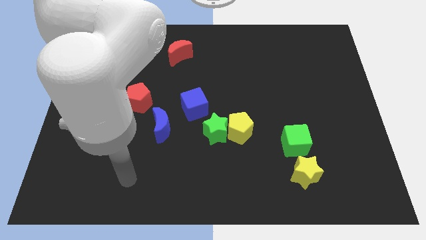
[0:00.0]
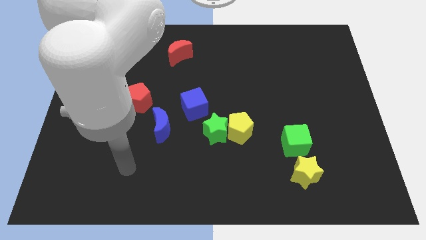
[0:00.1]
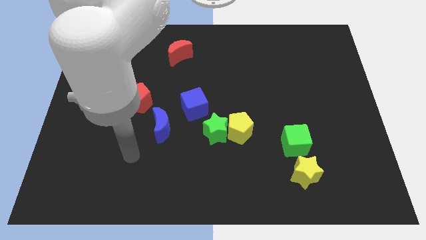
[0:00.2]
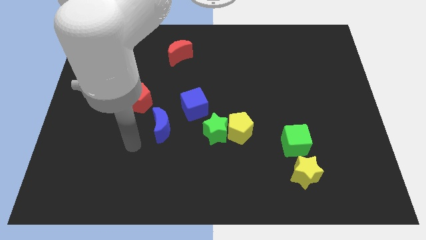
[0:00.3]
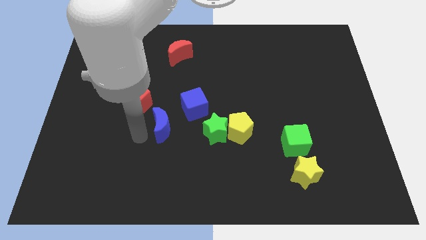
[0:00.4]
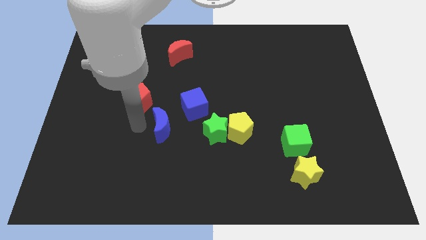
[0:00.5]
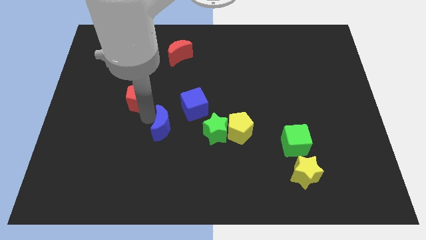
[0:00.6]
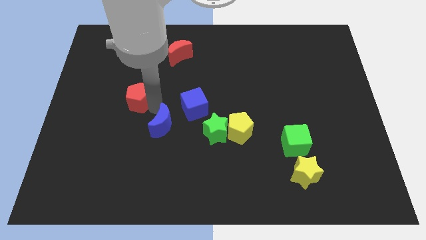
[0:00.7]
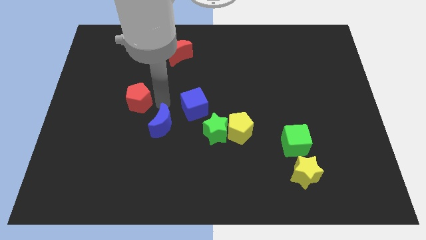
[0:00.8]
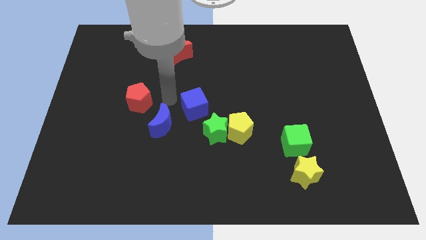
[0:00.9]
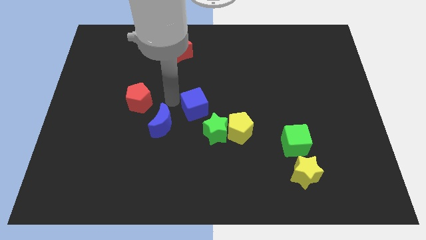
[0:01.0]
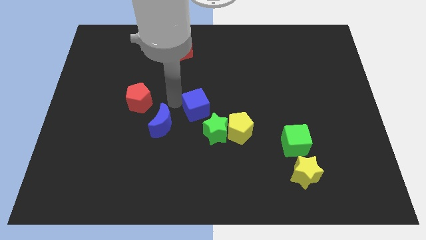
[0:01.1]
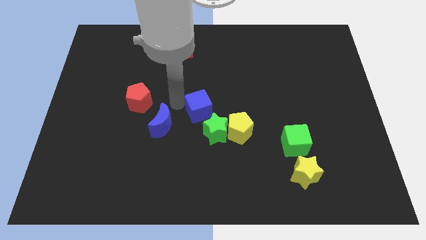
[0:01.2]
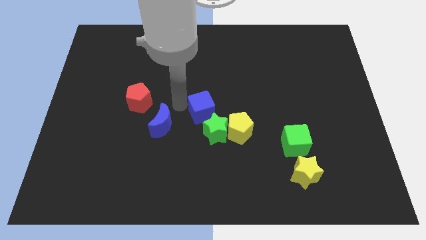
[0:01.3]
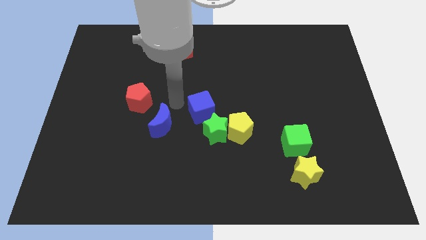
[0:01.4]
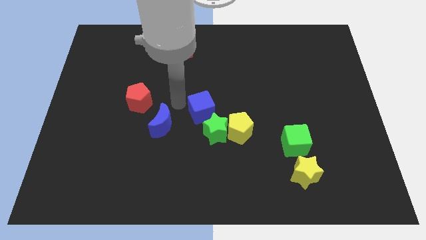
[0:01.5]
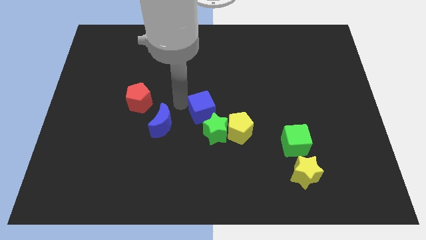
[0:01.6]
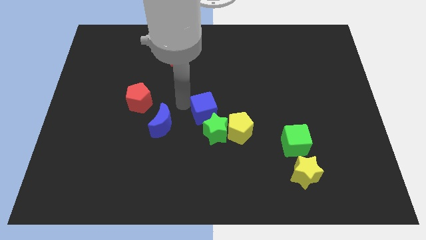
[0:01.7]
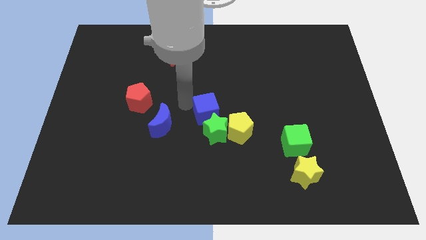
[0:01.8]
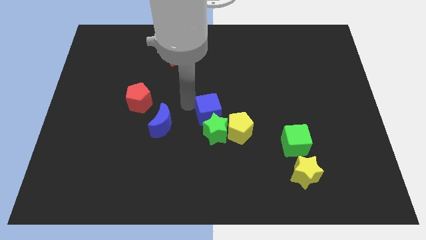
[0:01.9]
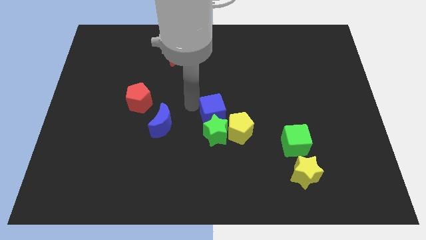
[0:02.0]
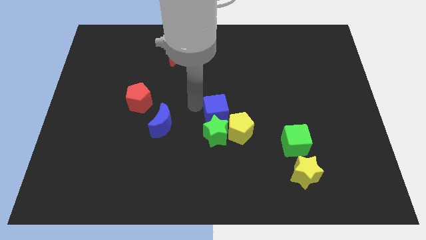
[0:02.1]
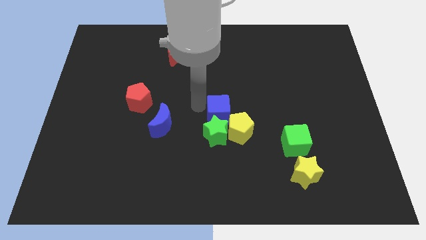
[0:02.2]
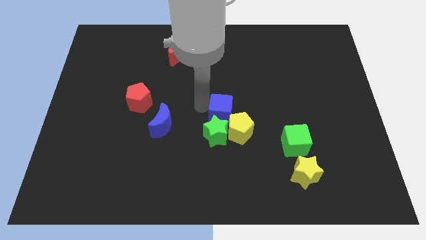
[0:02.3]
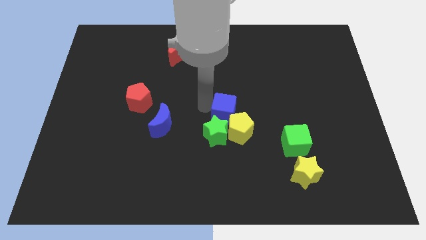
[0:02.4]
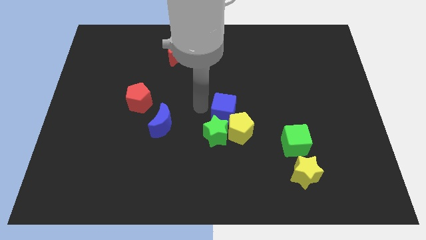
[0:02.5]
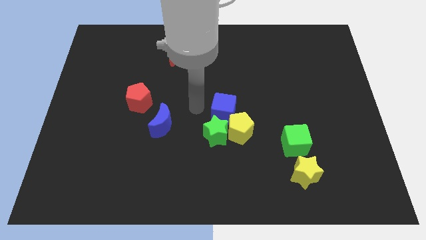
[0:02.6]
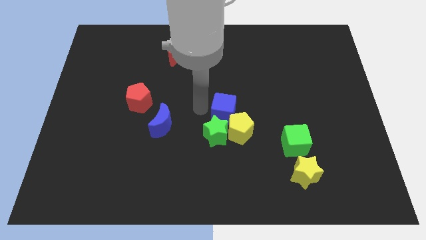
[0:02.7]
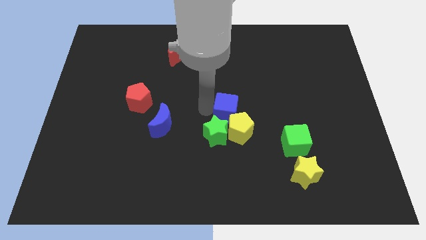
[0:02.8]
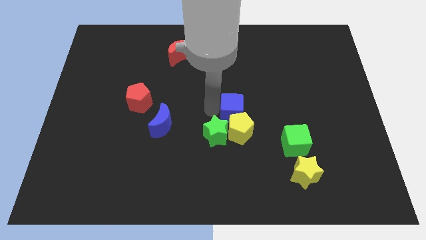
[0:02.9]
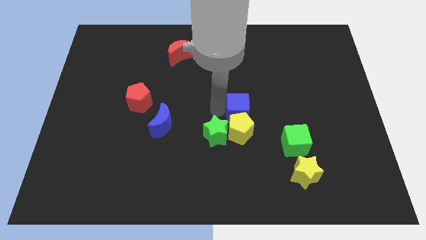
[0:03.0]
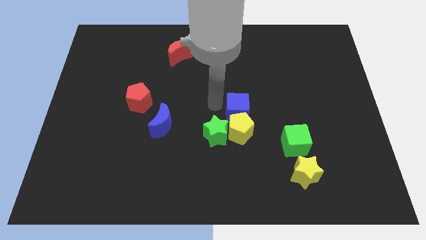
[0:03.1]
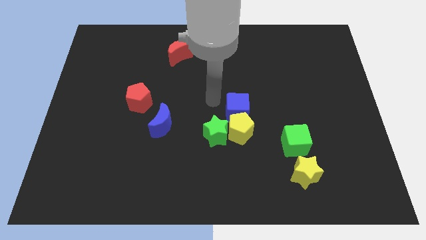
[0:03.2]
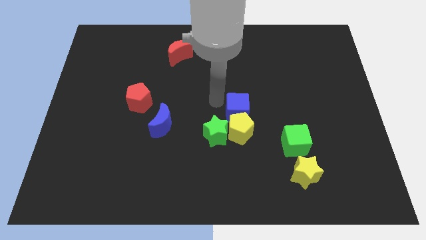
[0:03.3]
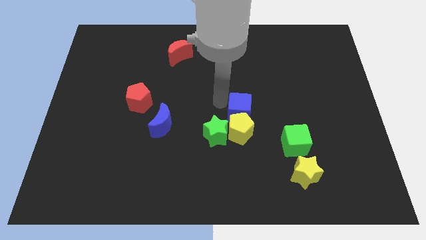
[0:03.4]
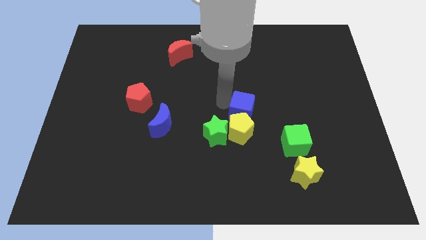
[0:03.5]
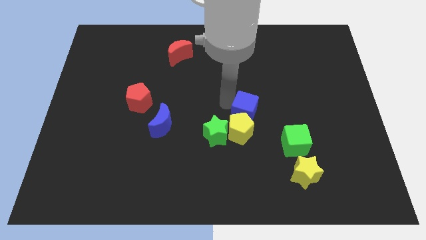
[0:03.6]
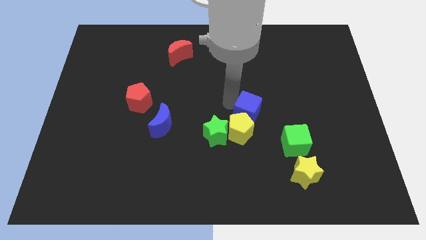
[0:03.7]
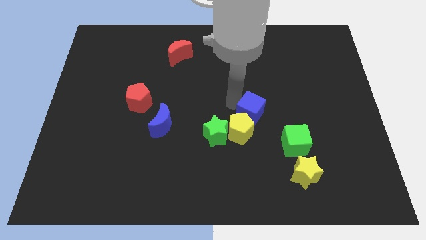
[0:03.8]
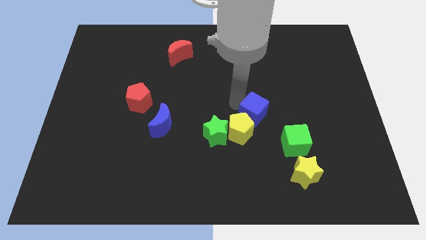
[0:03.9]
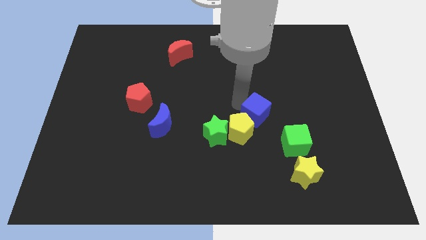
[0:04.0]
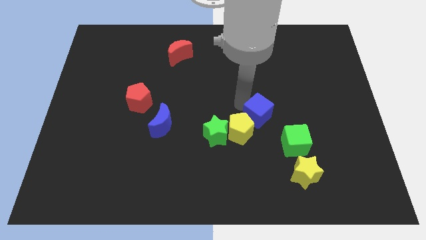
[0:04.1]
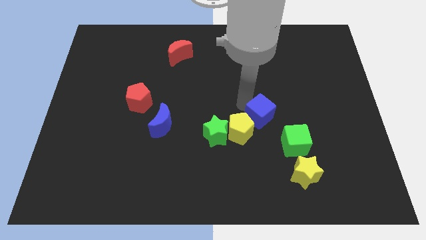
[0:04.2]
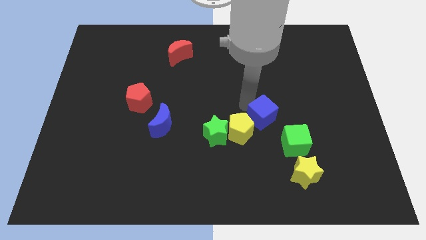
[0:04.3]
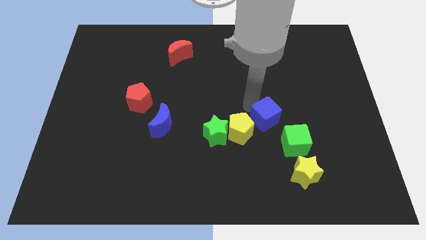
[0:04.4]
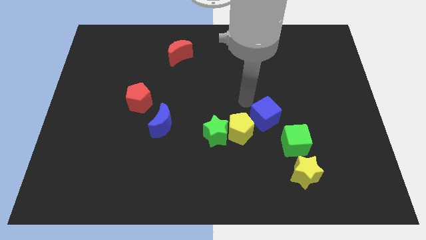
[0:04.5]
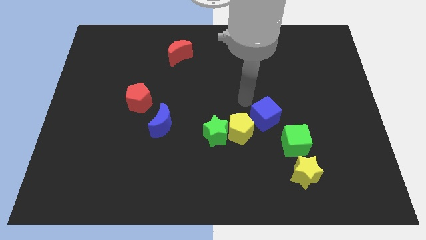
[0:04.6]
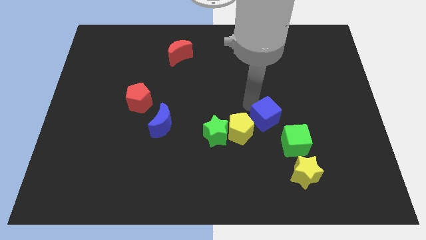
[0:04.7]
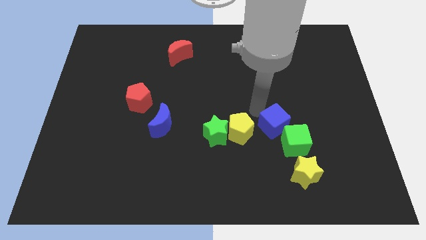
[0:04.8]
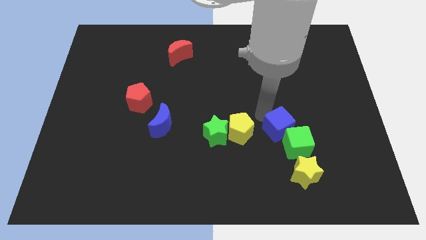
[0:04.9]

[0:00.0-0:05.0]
slide the blue cube to the green cube

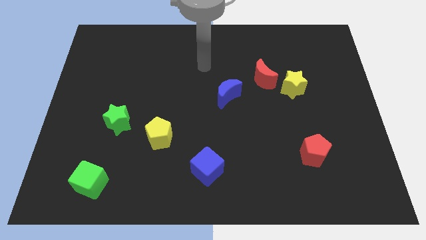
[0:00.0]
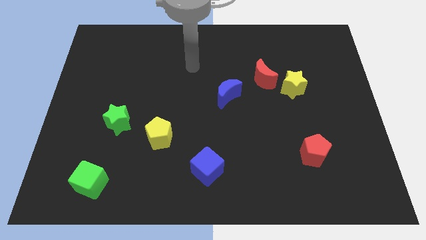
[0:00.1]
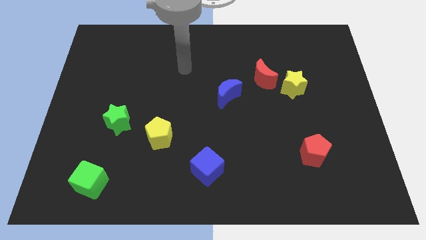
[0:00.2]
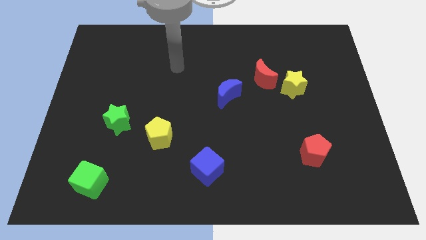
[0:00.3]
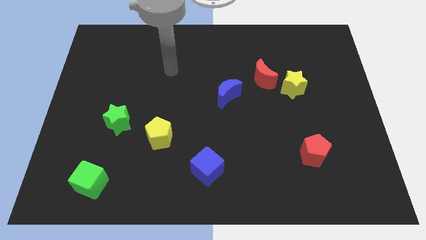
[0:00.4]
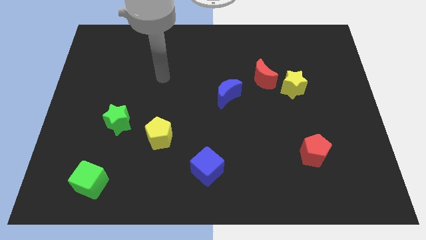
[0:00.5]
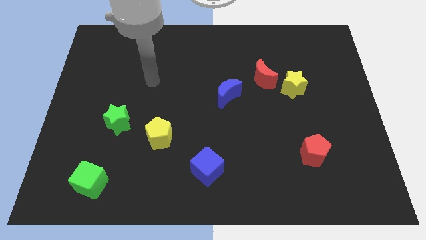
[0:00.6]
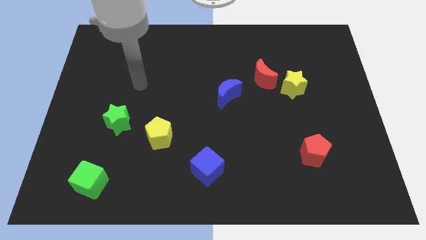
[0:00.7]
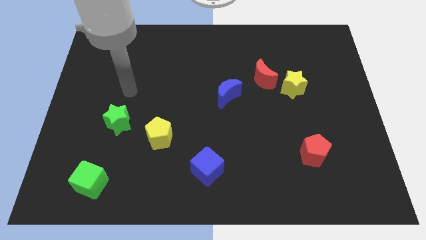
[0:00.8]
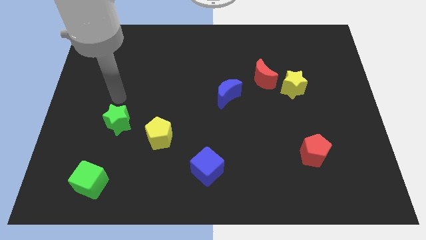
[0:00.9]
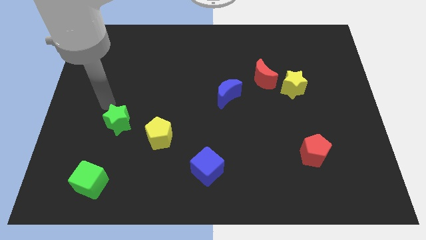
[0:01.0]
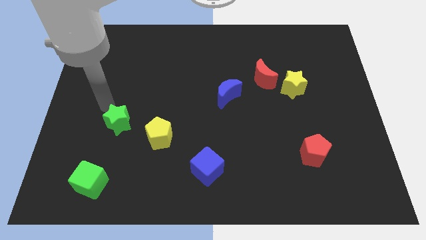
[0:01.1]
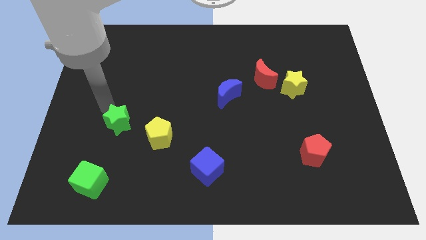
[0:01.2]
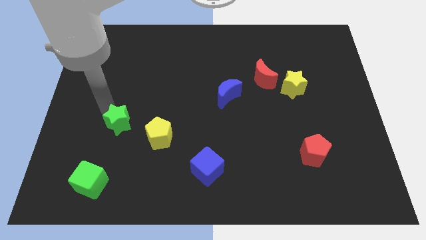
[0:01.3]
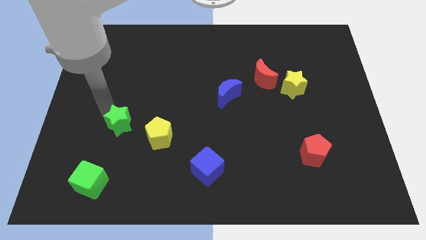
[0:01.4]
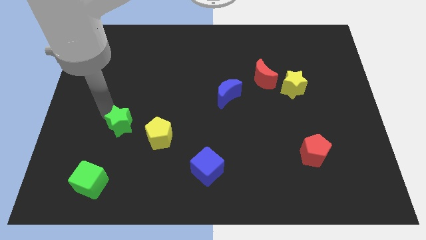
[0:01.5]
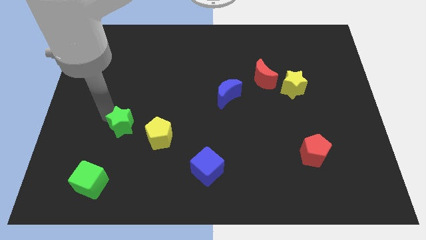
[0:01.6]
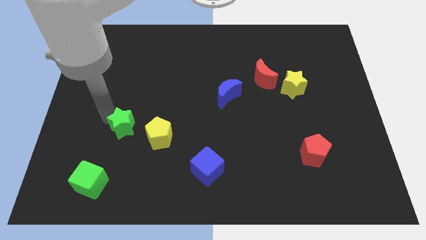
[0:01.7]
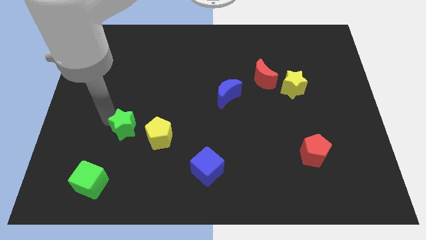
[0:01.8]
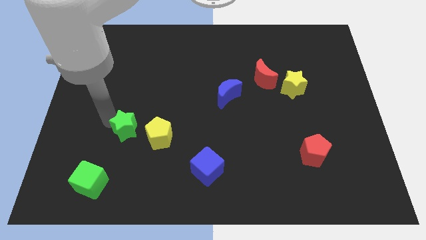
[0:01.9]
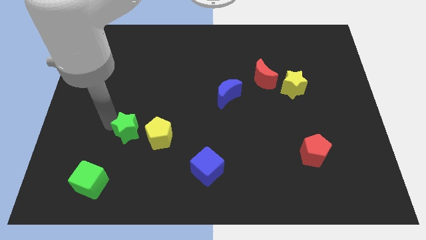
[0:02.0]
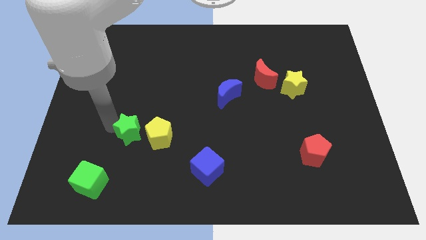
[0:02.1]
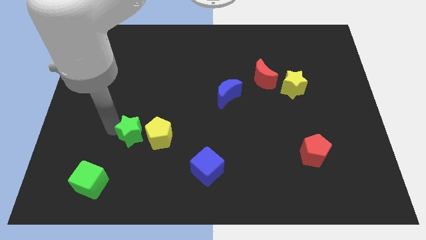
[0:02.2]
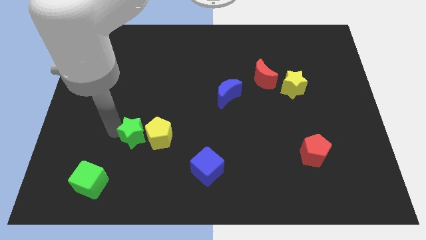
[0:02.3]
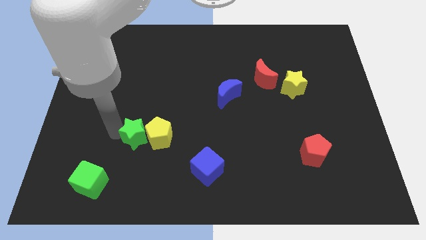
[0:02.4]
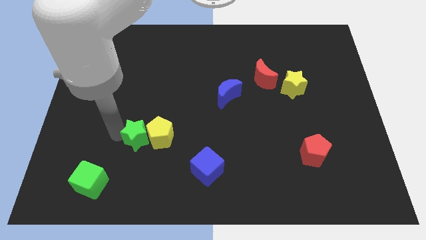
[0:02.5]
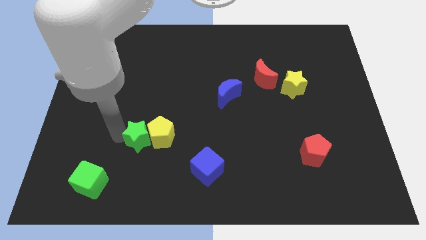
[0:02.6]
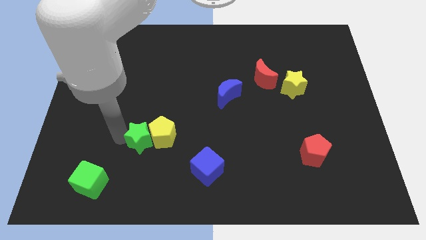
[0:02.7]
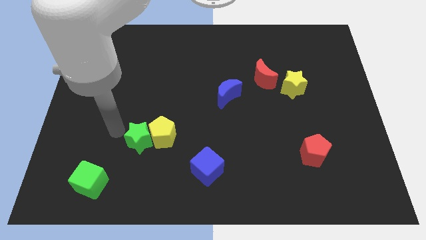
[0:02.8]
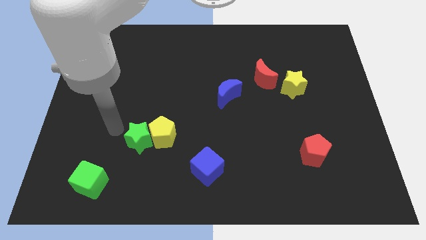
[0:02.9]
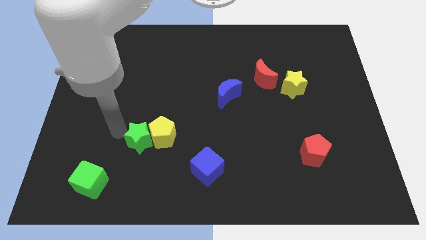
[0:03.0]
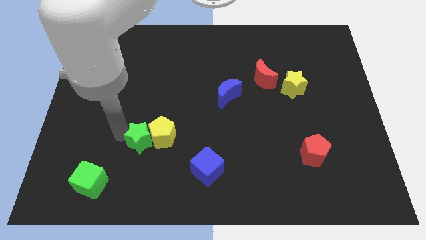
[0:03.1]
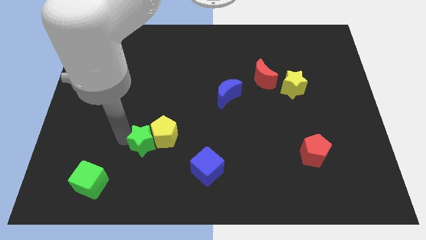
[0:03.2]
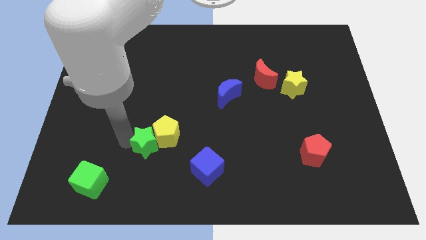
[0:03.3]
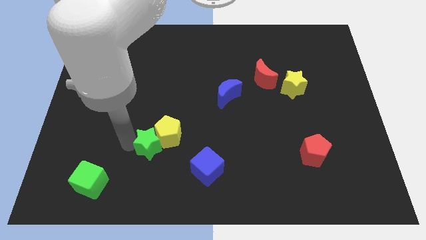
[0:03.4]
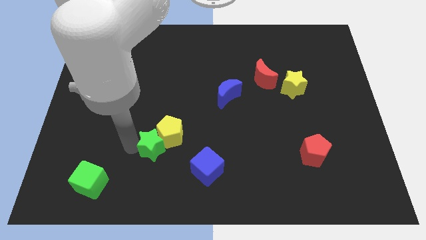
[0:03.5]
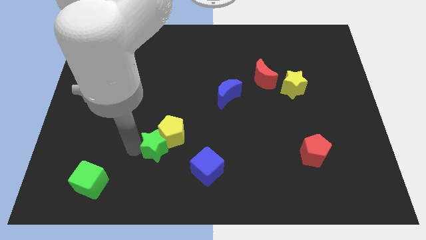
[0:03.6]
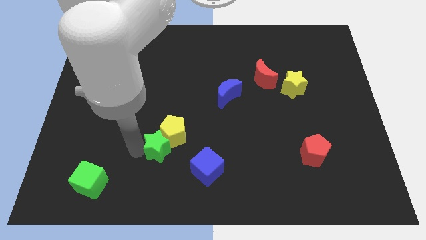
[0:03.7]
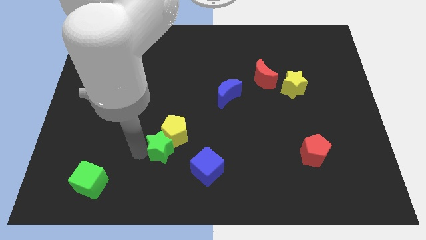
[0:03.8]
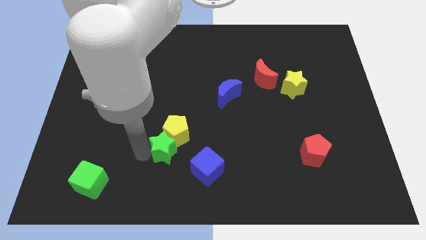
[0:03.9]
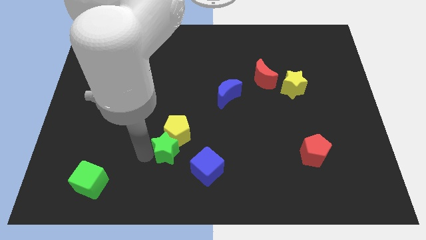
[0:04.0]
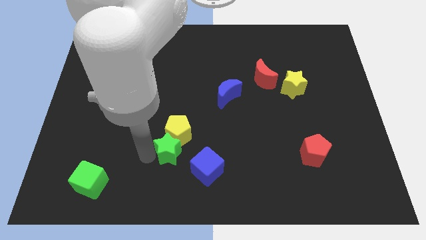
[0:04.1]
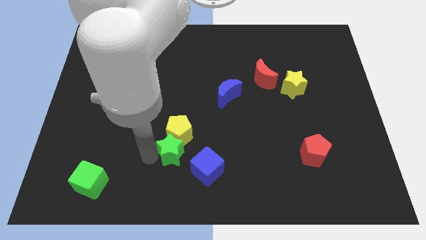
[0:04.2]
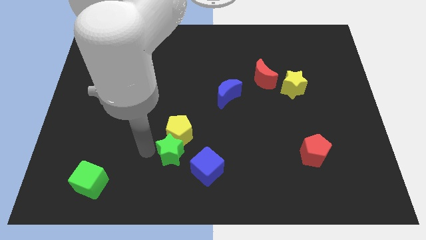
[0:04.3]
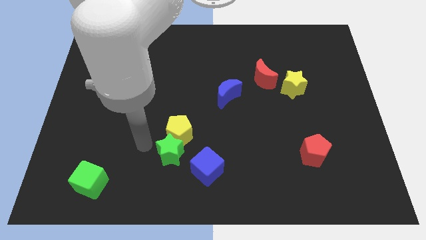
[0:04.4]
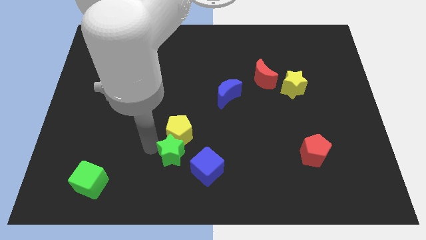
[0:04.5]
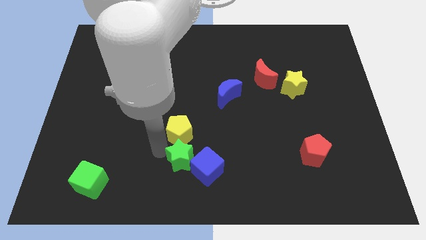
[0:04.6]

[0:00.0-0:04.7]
push the green star to the blue cube
